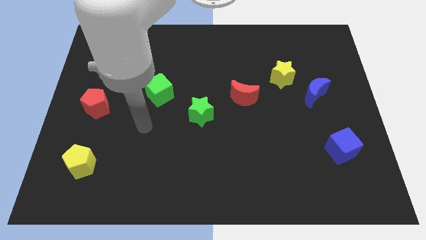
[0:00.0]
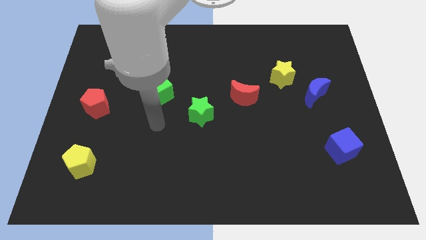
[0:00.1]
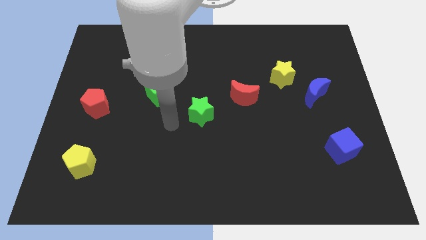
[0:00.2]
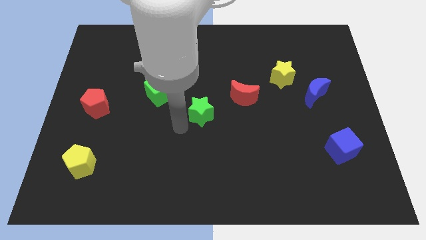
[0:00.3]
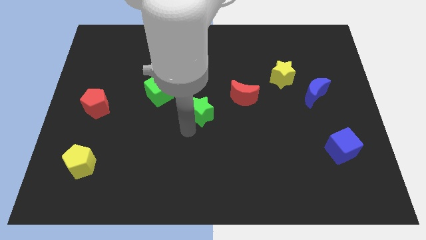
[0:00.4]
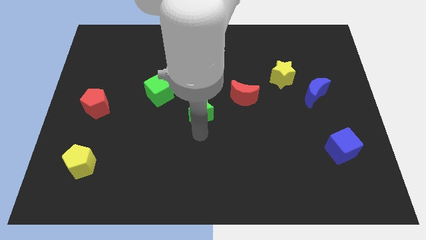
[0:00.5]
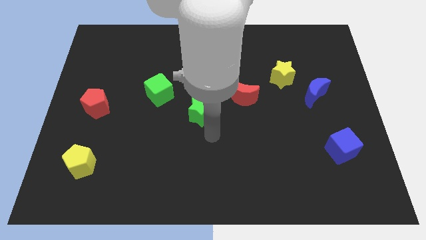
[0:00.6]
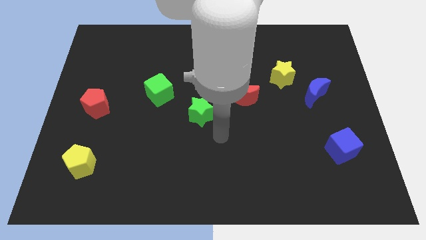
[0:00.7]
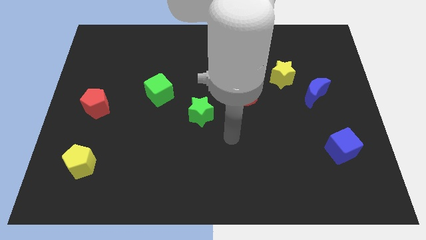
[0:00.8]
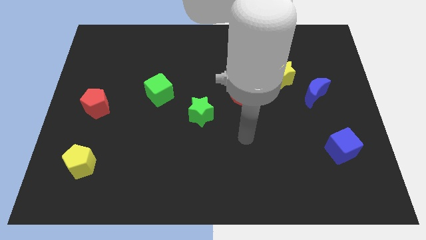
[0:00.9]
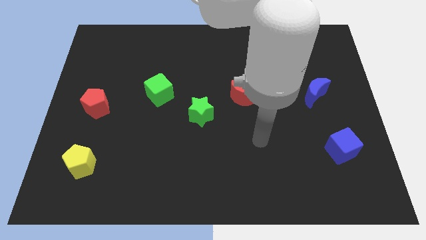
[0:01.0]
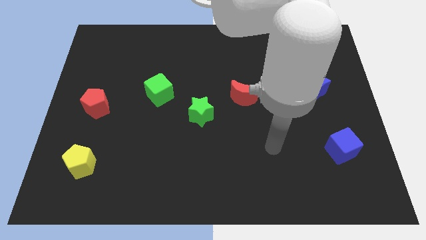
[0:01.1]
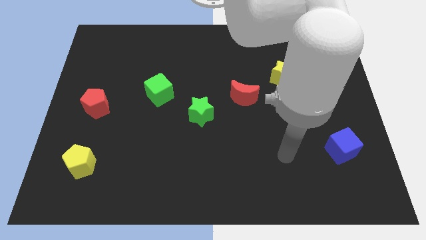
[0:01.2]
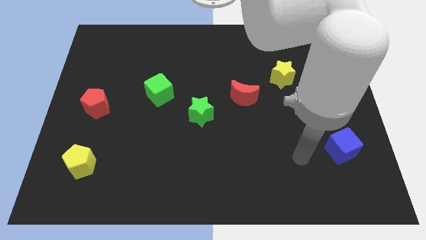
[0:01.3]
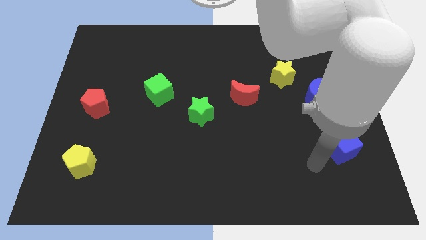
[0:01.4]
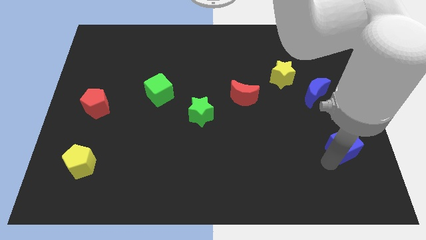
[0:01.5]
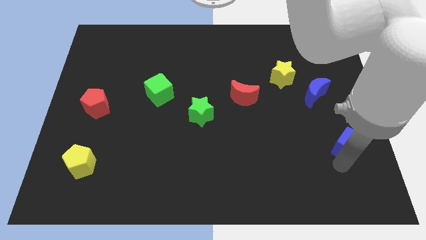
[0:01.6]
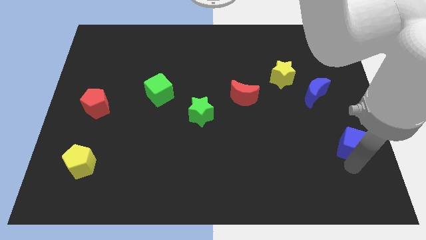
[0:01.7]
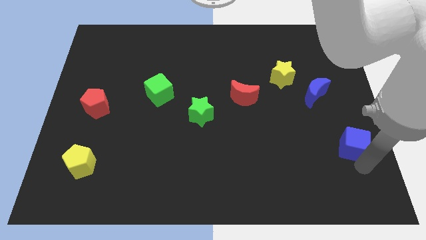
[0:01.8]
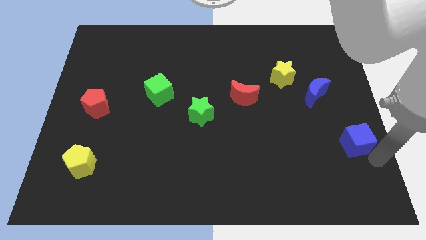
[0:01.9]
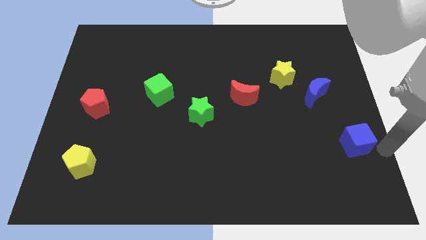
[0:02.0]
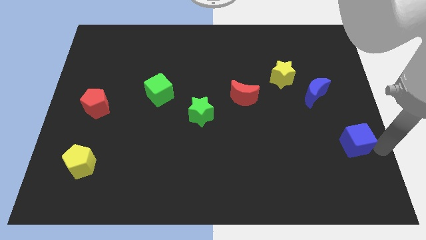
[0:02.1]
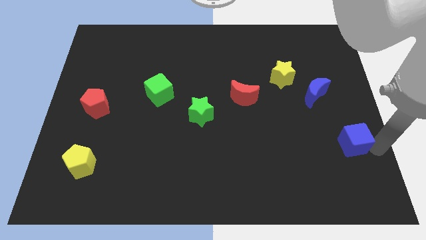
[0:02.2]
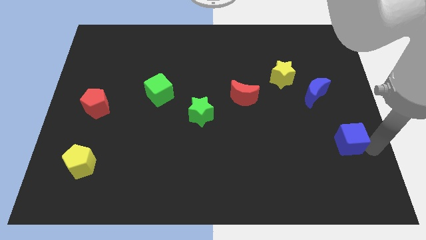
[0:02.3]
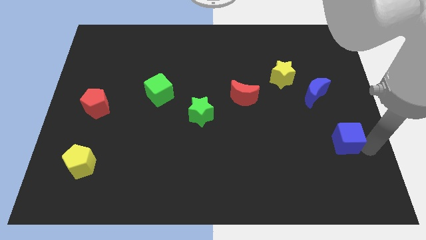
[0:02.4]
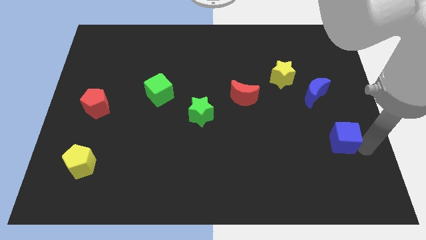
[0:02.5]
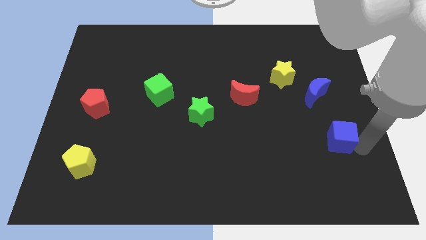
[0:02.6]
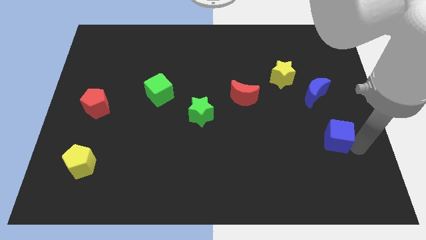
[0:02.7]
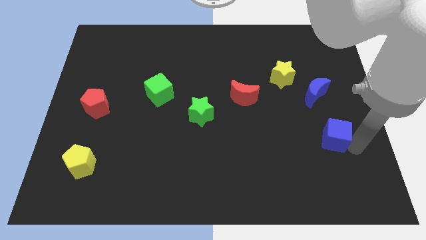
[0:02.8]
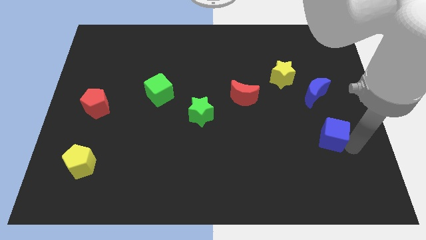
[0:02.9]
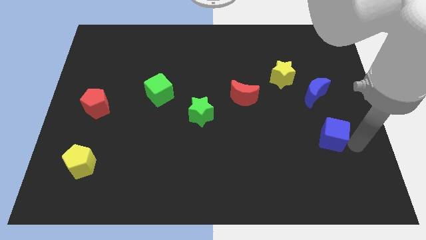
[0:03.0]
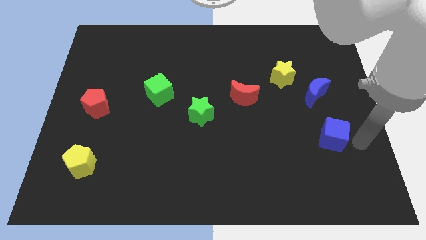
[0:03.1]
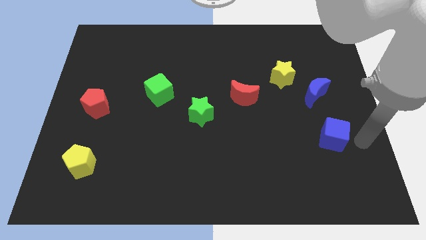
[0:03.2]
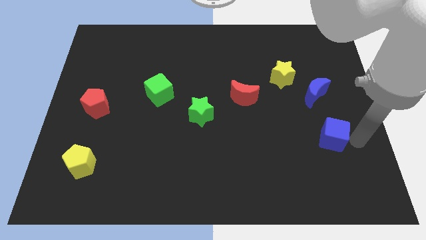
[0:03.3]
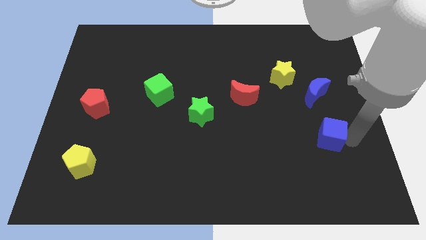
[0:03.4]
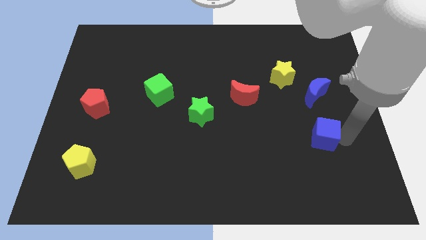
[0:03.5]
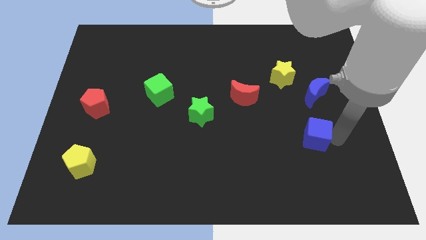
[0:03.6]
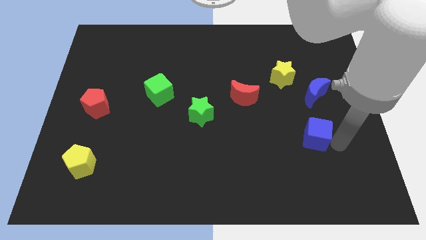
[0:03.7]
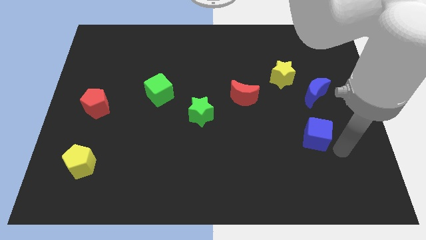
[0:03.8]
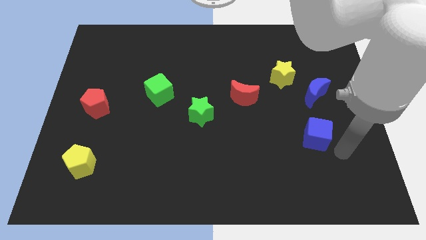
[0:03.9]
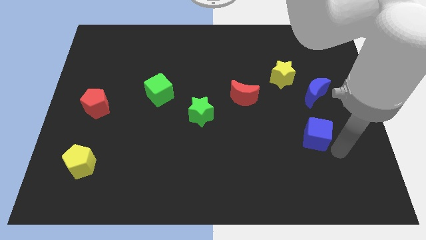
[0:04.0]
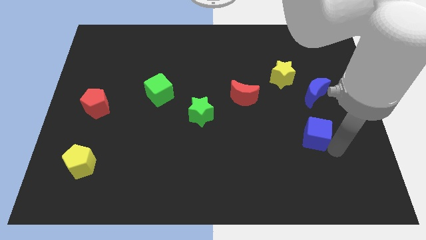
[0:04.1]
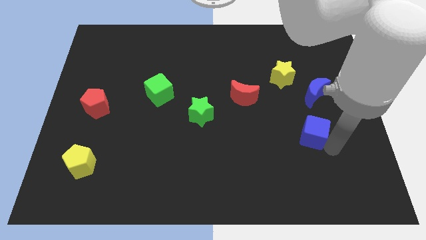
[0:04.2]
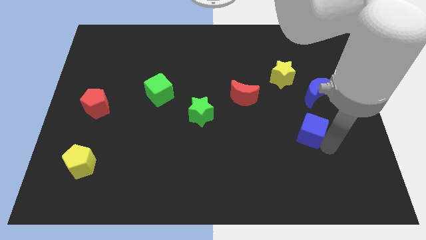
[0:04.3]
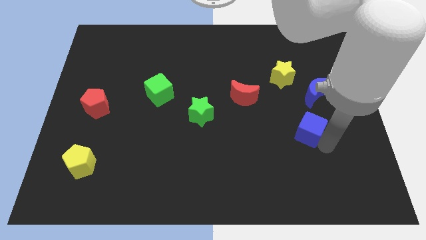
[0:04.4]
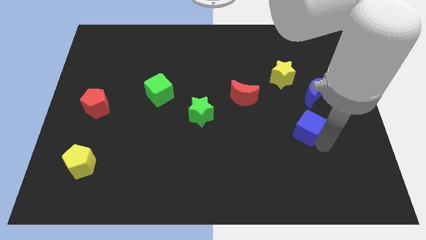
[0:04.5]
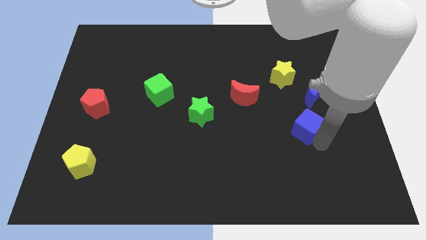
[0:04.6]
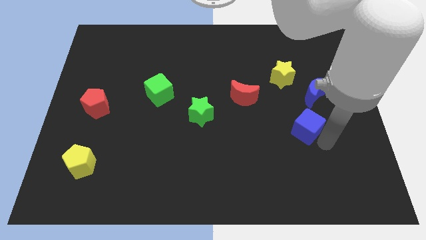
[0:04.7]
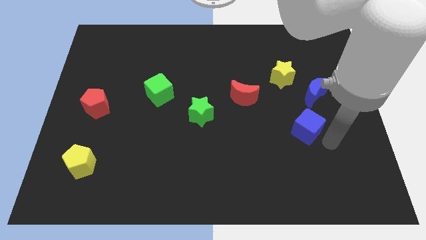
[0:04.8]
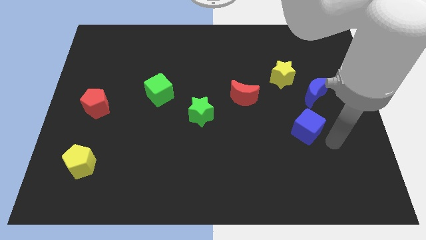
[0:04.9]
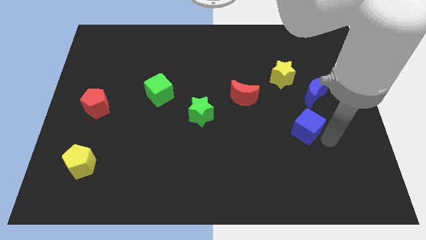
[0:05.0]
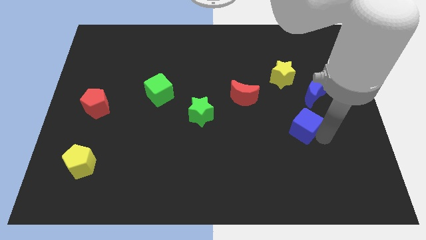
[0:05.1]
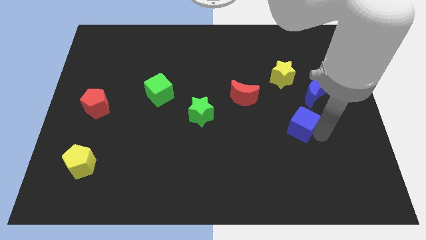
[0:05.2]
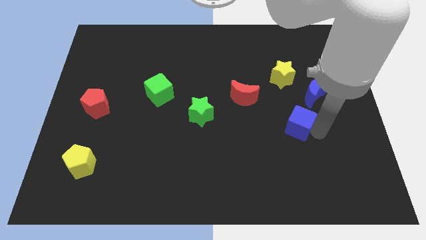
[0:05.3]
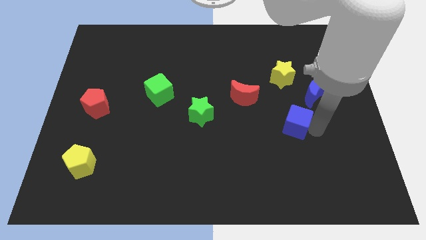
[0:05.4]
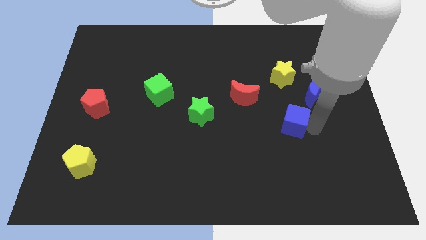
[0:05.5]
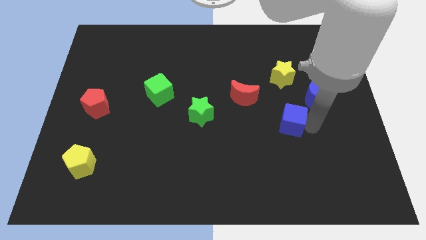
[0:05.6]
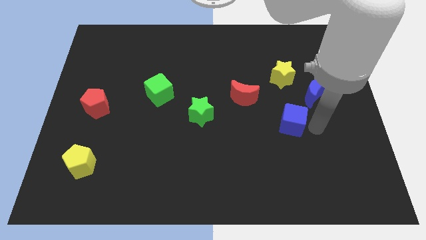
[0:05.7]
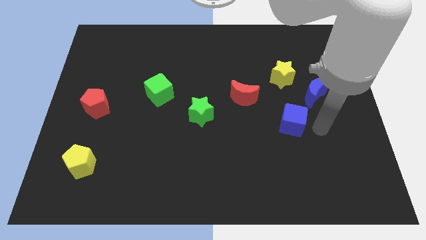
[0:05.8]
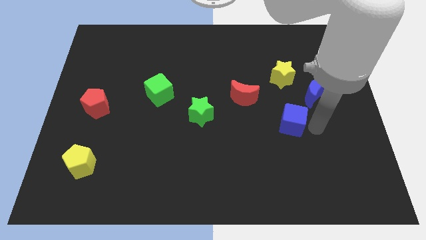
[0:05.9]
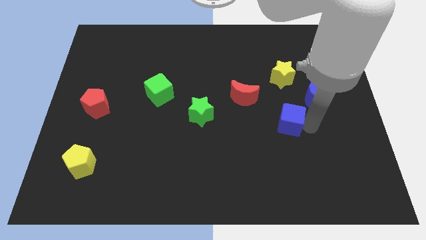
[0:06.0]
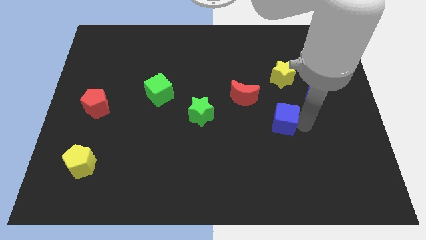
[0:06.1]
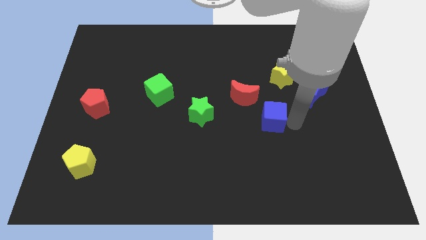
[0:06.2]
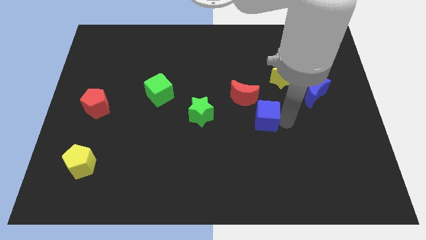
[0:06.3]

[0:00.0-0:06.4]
put the blue cube to the right of the green star

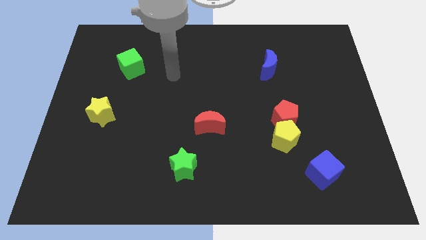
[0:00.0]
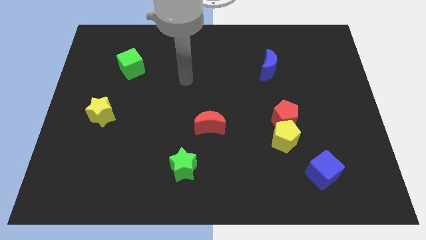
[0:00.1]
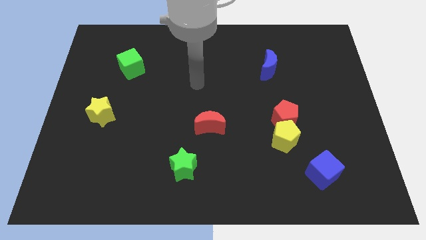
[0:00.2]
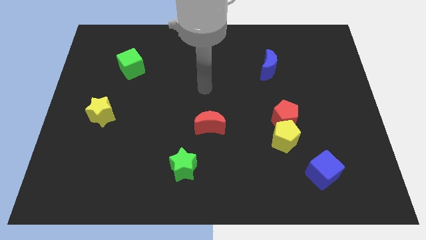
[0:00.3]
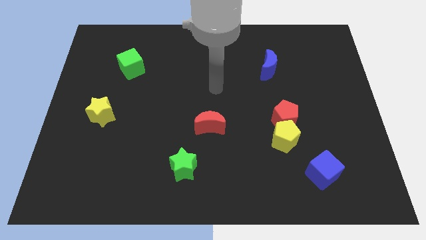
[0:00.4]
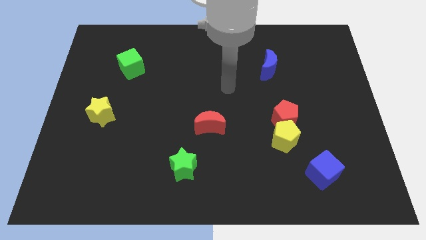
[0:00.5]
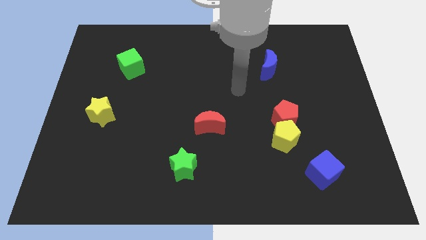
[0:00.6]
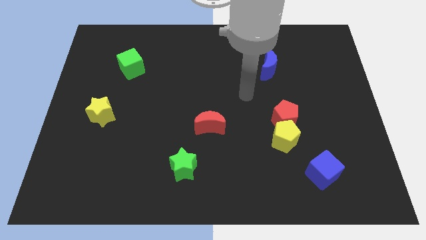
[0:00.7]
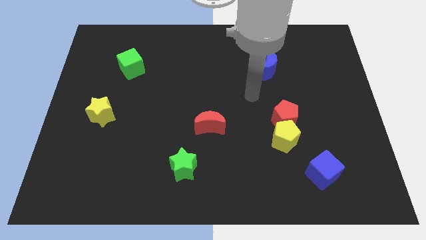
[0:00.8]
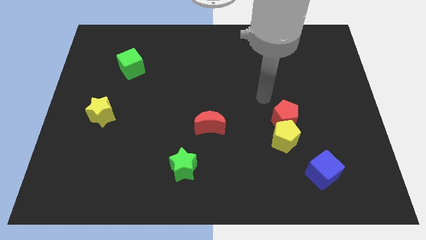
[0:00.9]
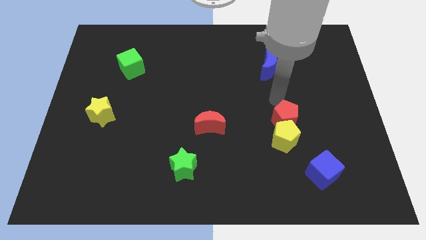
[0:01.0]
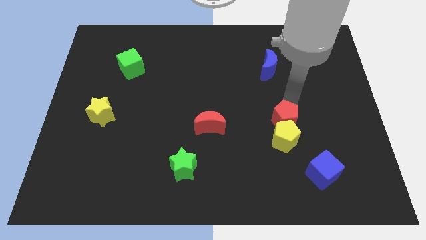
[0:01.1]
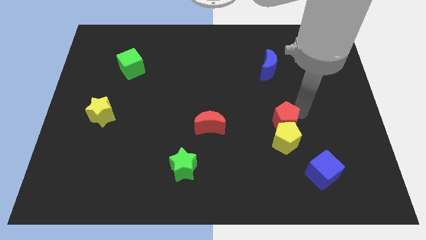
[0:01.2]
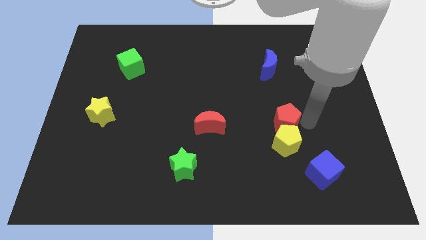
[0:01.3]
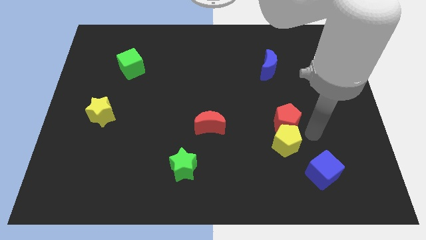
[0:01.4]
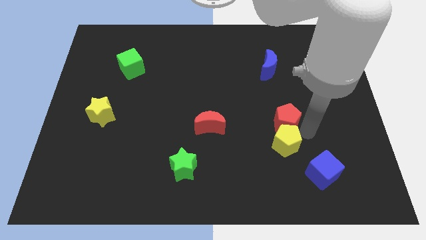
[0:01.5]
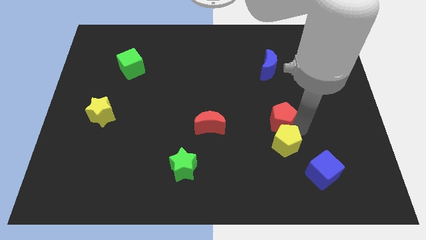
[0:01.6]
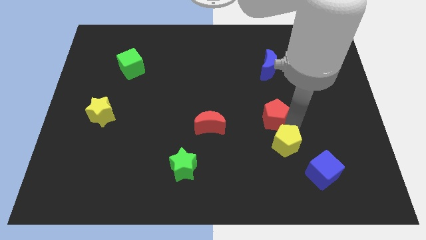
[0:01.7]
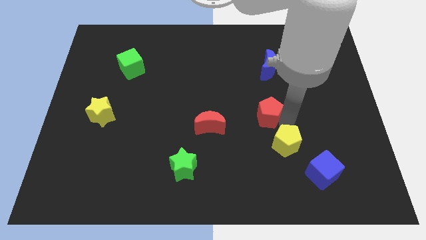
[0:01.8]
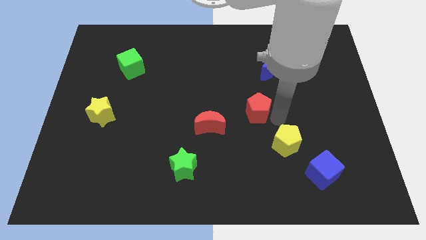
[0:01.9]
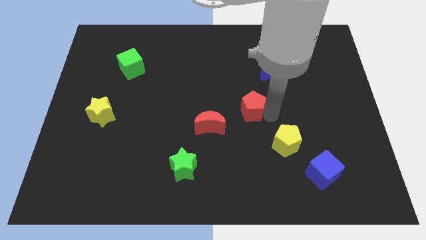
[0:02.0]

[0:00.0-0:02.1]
put the red pentagon to the top right of the red moon
